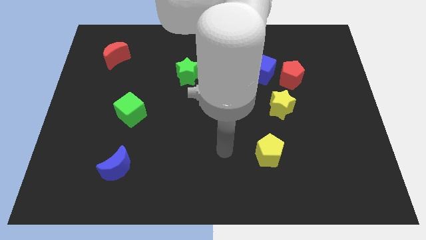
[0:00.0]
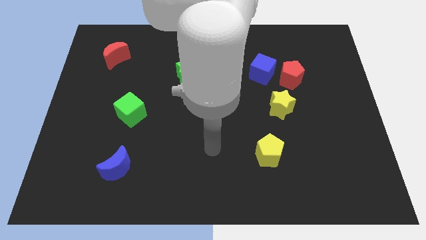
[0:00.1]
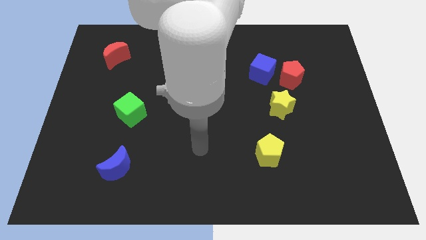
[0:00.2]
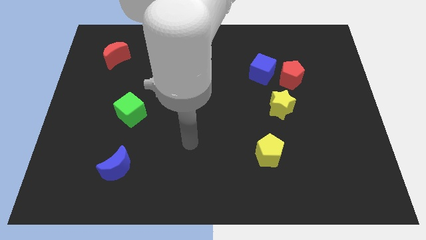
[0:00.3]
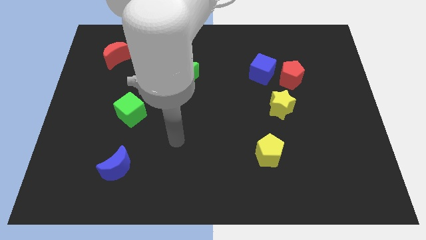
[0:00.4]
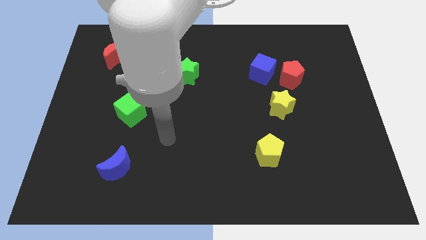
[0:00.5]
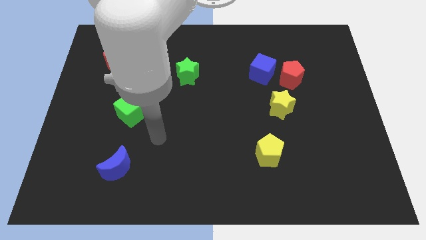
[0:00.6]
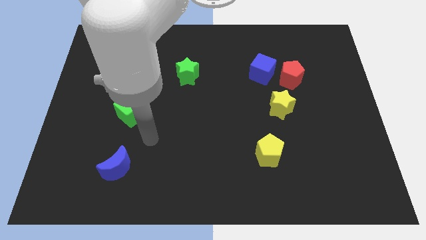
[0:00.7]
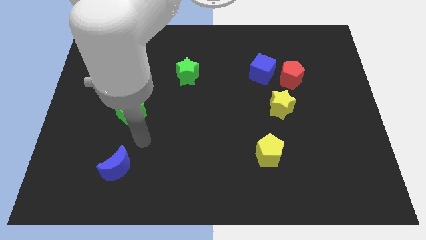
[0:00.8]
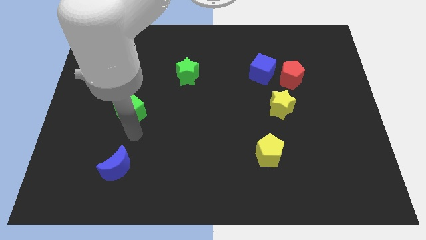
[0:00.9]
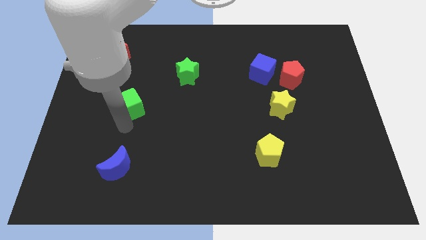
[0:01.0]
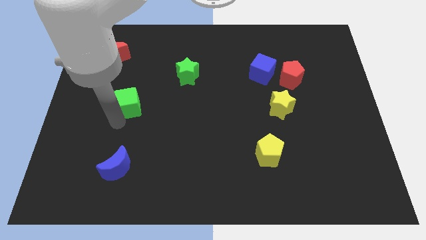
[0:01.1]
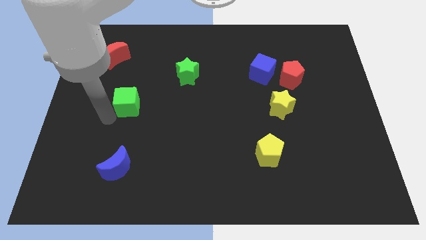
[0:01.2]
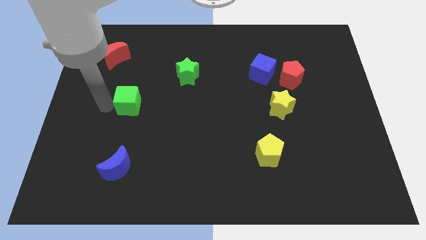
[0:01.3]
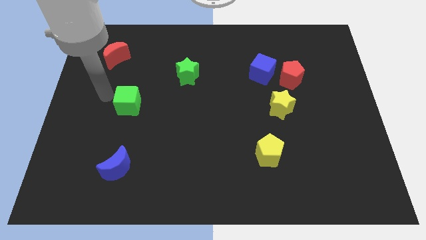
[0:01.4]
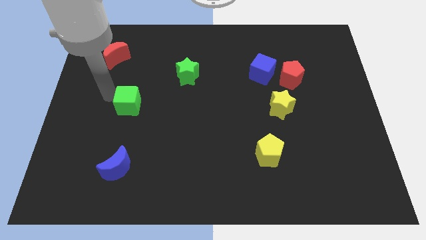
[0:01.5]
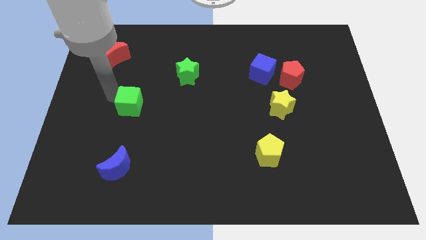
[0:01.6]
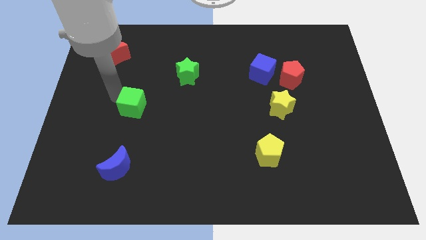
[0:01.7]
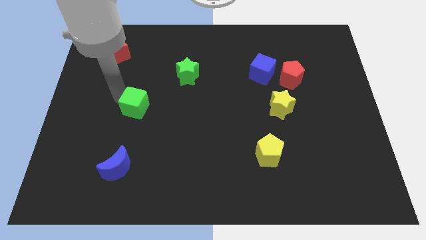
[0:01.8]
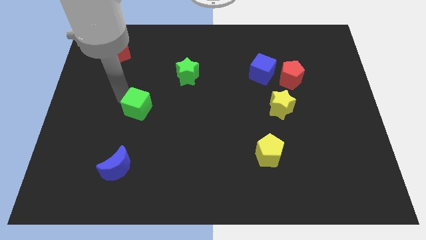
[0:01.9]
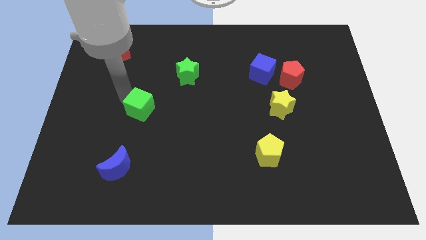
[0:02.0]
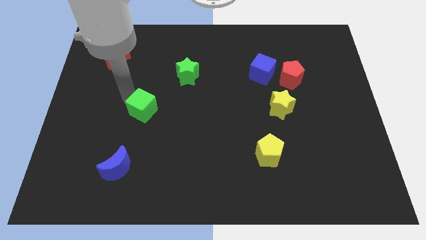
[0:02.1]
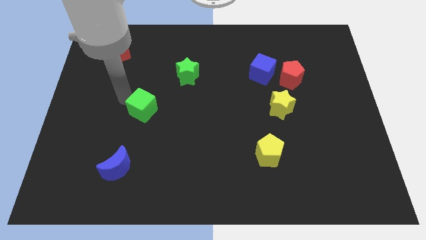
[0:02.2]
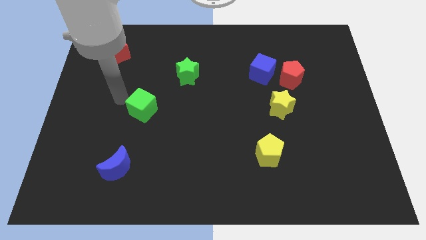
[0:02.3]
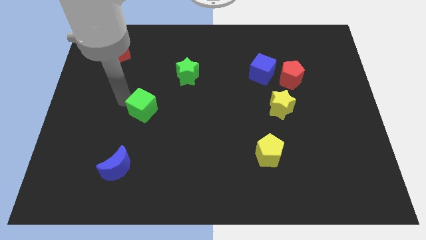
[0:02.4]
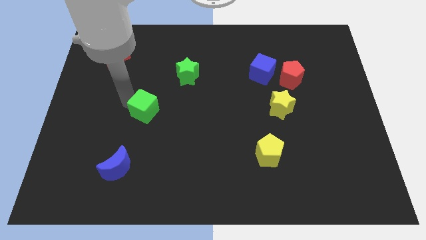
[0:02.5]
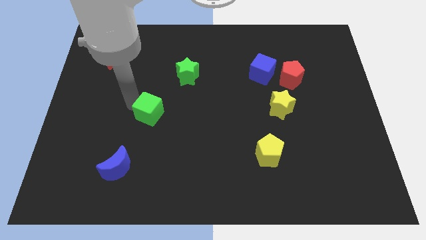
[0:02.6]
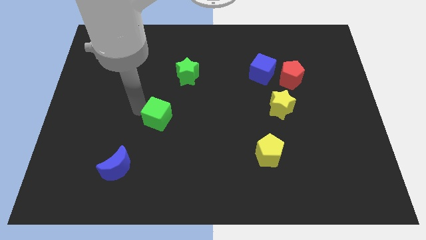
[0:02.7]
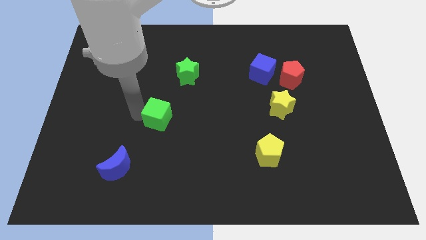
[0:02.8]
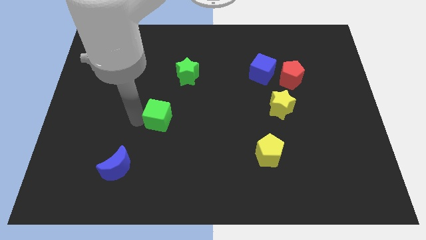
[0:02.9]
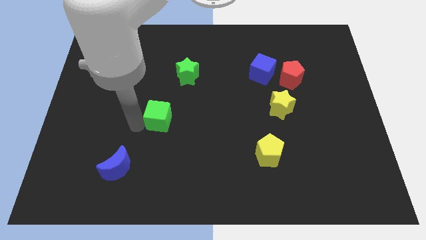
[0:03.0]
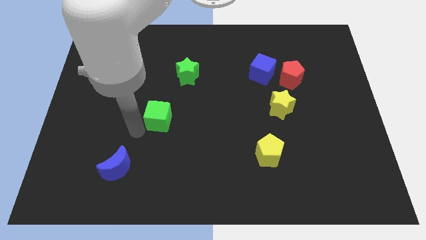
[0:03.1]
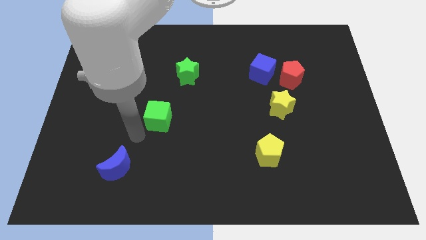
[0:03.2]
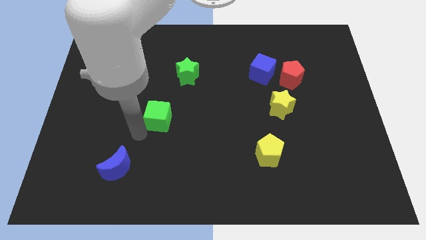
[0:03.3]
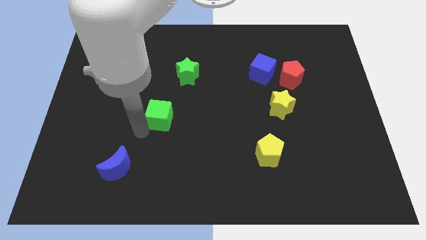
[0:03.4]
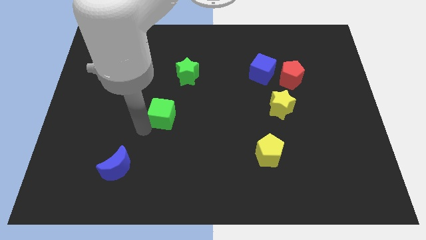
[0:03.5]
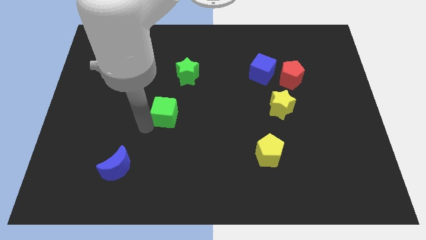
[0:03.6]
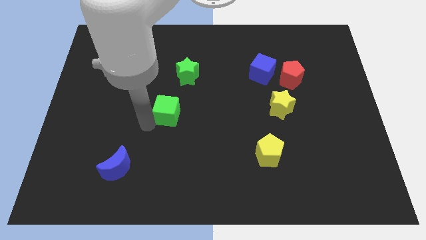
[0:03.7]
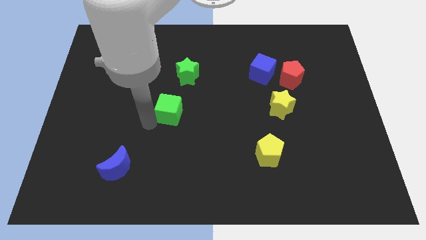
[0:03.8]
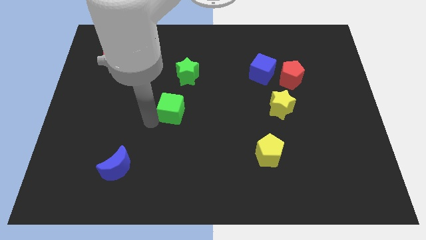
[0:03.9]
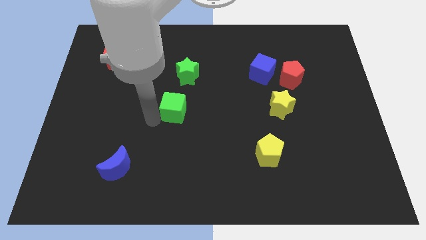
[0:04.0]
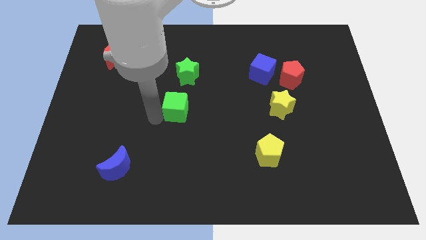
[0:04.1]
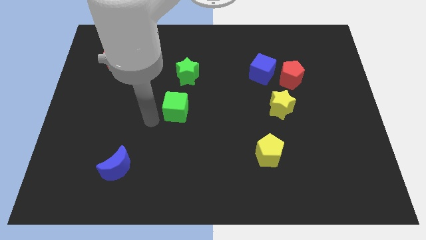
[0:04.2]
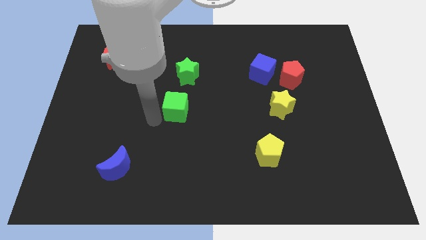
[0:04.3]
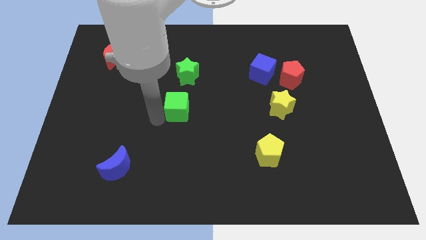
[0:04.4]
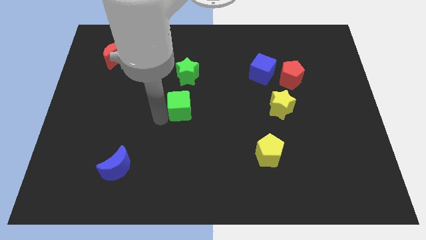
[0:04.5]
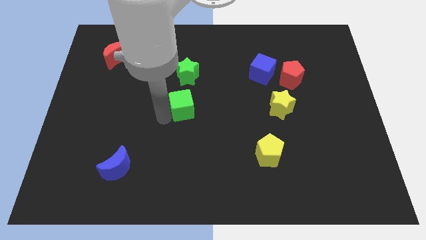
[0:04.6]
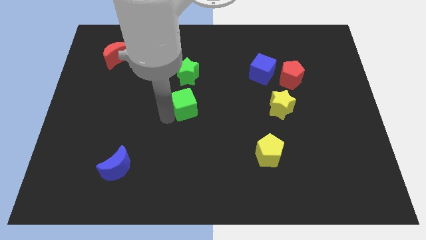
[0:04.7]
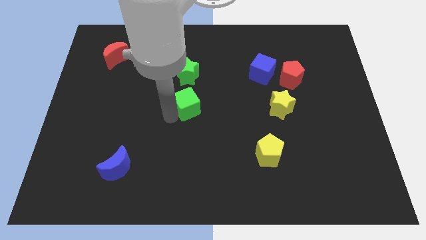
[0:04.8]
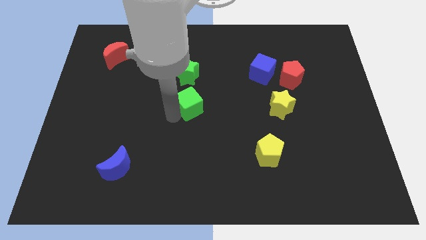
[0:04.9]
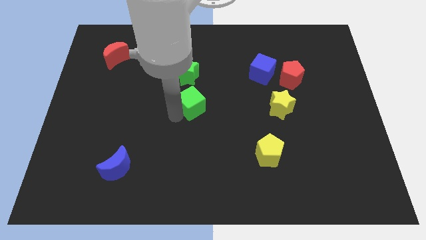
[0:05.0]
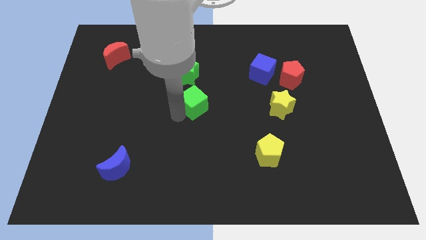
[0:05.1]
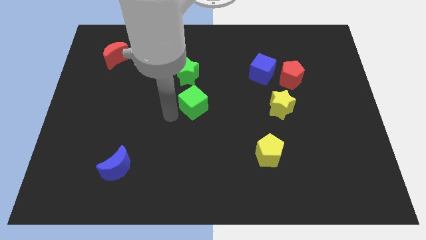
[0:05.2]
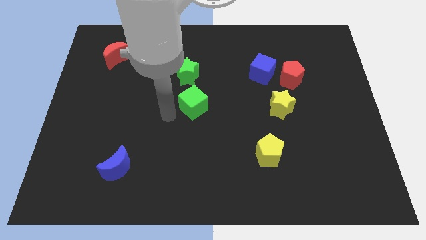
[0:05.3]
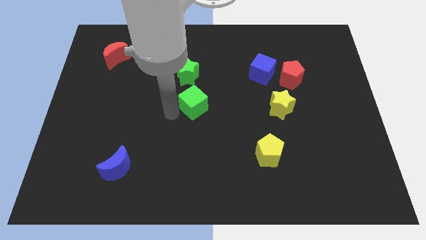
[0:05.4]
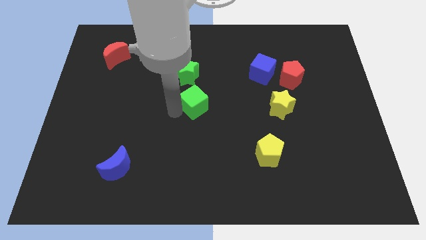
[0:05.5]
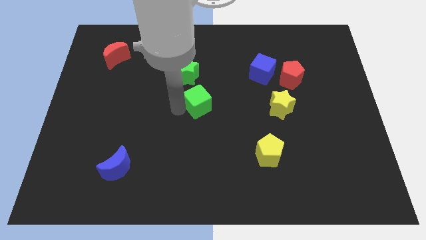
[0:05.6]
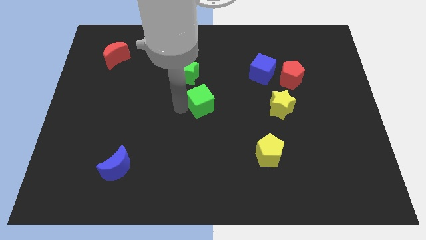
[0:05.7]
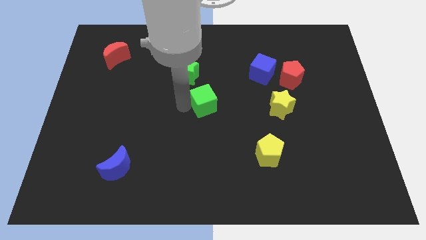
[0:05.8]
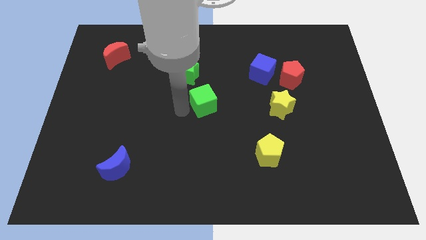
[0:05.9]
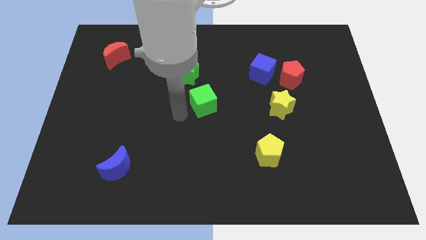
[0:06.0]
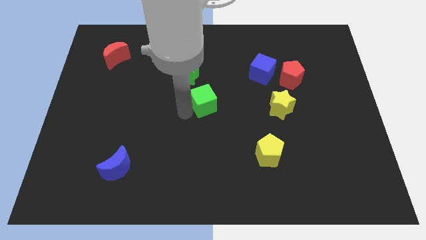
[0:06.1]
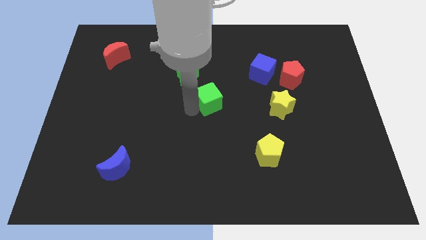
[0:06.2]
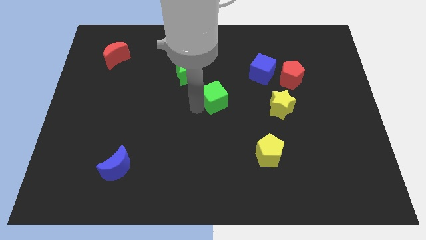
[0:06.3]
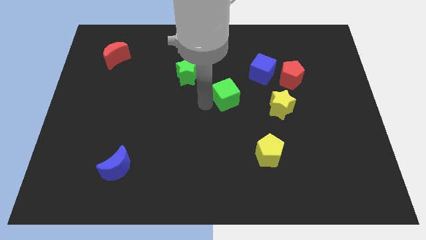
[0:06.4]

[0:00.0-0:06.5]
move the green cube diagonally down and to the left of the blue cube

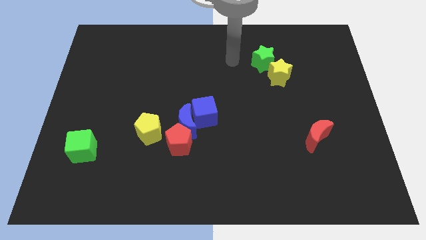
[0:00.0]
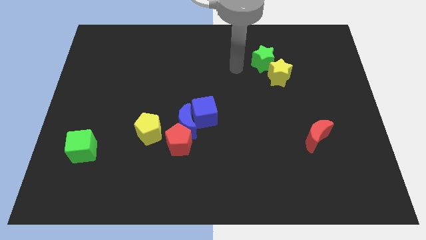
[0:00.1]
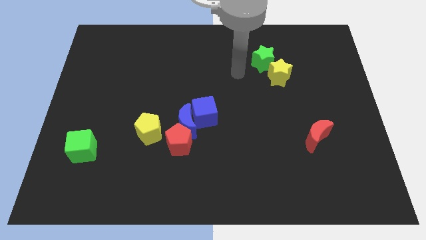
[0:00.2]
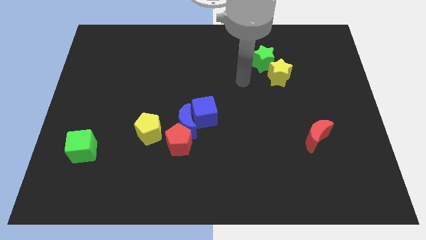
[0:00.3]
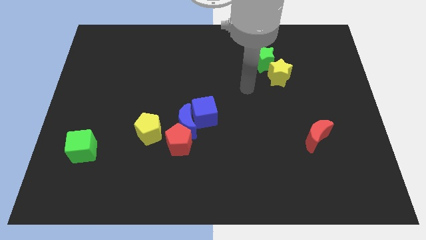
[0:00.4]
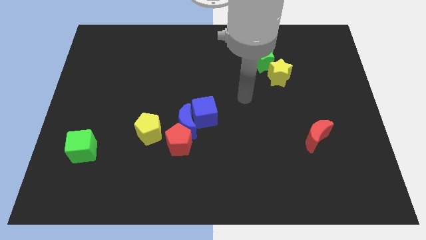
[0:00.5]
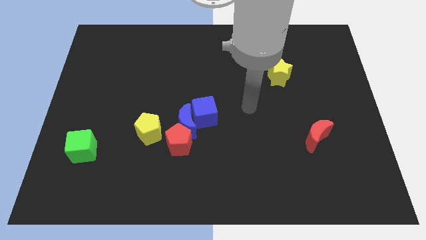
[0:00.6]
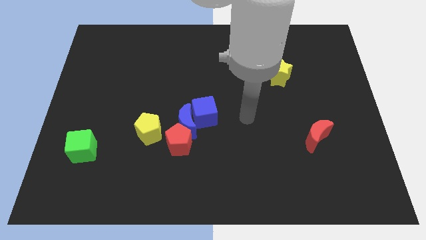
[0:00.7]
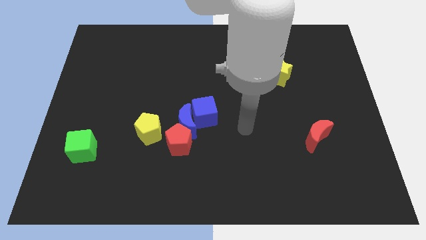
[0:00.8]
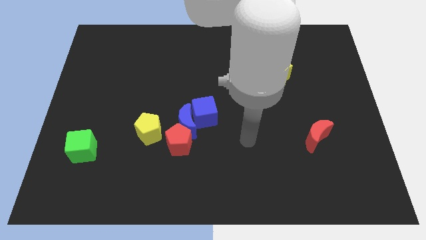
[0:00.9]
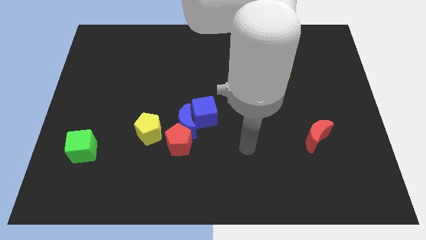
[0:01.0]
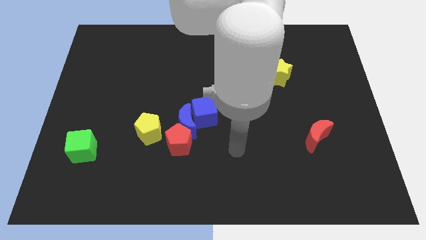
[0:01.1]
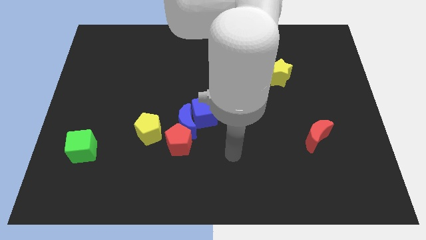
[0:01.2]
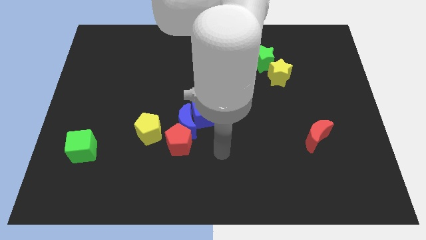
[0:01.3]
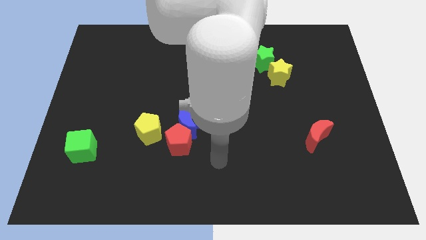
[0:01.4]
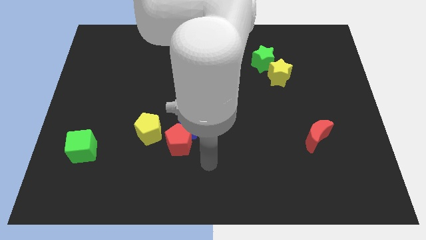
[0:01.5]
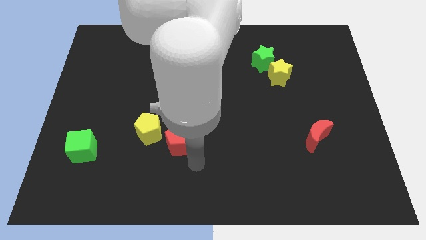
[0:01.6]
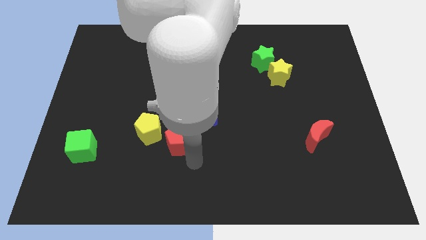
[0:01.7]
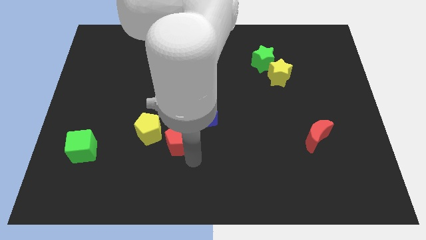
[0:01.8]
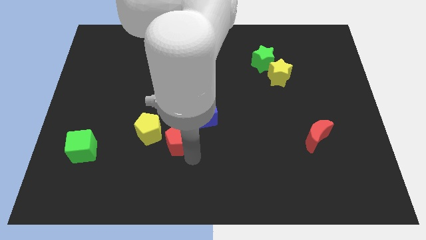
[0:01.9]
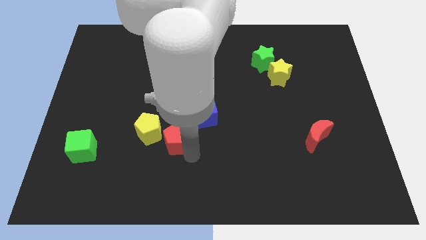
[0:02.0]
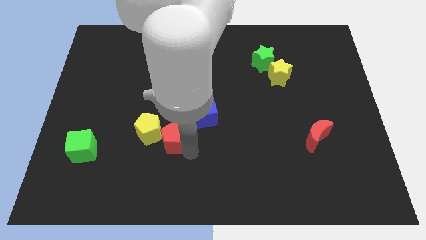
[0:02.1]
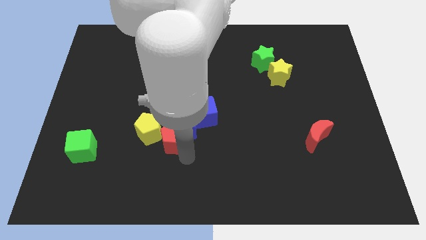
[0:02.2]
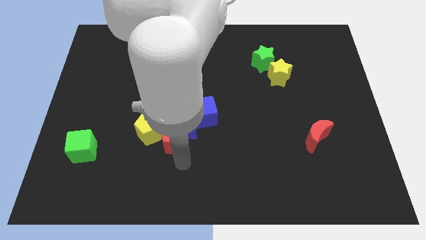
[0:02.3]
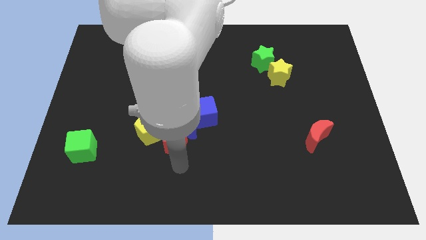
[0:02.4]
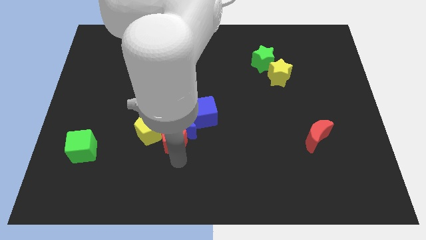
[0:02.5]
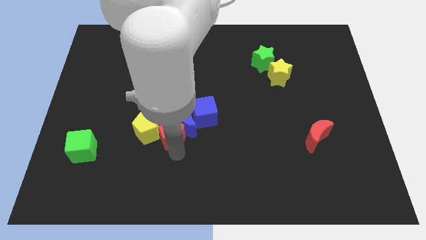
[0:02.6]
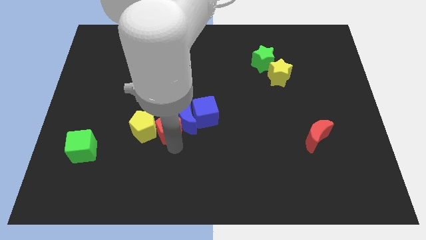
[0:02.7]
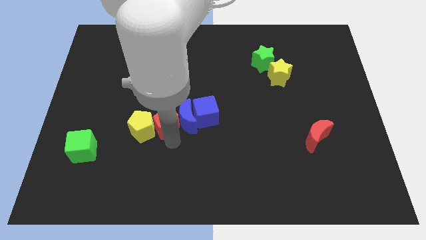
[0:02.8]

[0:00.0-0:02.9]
slide the red pentagon to the top left side of the blue moon
